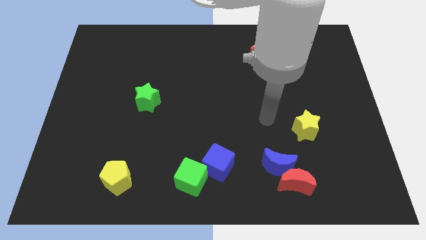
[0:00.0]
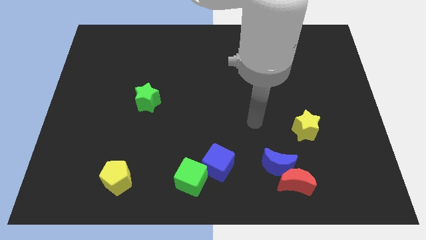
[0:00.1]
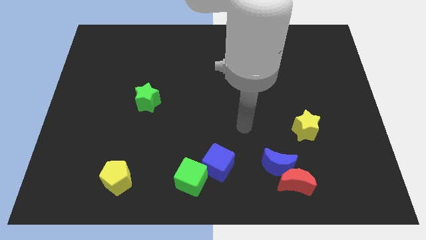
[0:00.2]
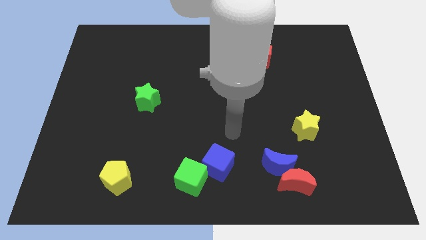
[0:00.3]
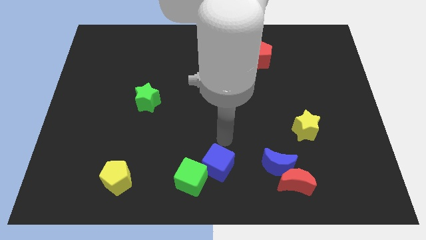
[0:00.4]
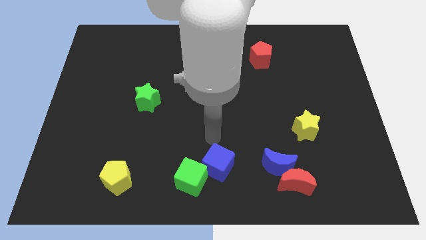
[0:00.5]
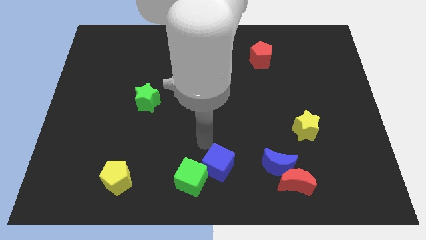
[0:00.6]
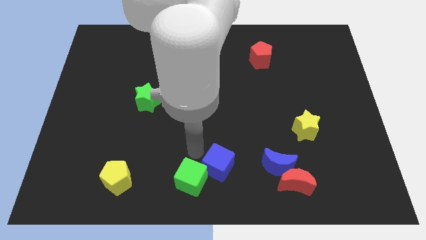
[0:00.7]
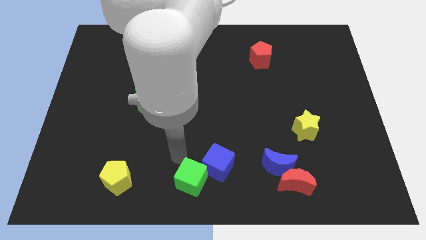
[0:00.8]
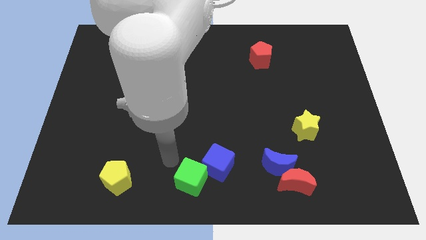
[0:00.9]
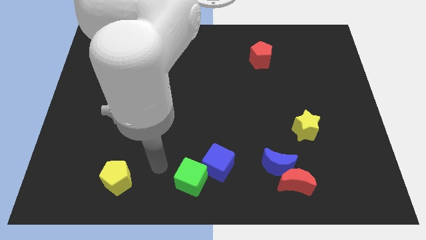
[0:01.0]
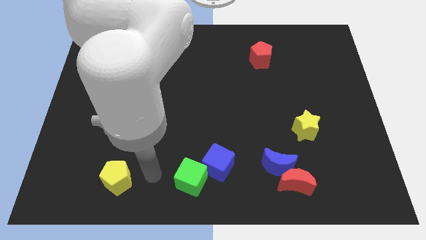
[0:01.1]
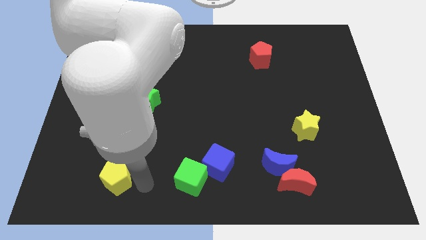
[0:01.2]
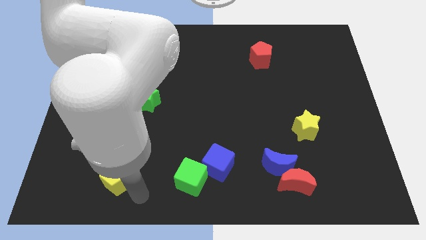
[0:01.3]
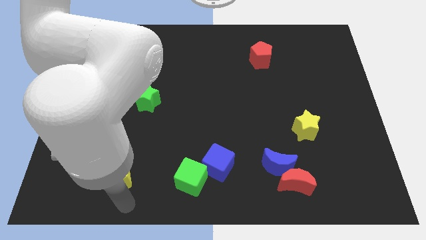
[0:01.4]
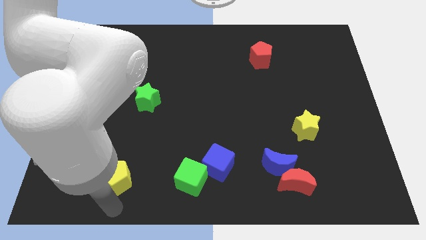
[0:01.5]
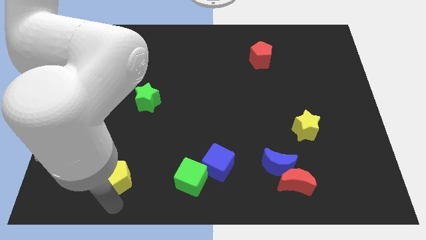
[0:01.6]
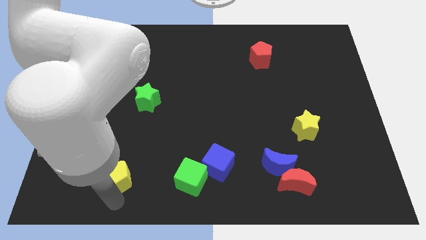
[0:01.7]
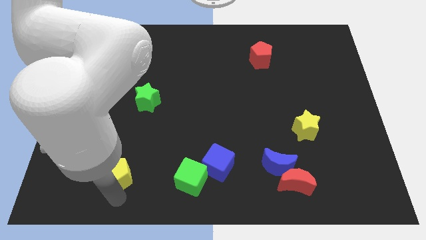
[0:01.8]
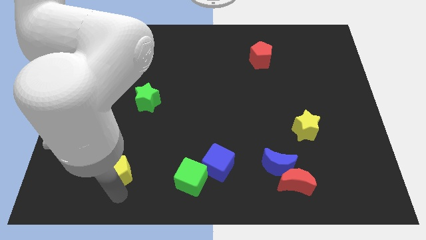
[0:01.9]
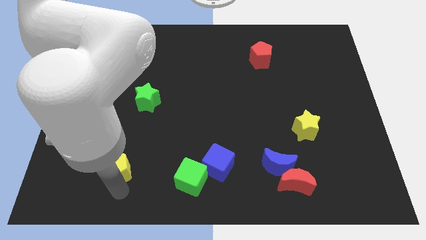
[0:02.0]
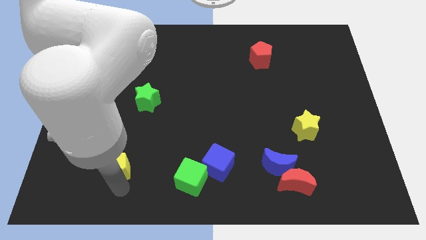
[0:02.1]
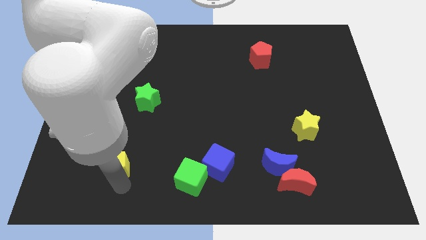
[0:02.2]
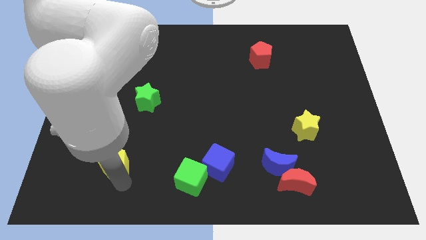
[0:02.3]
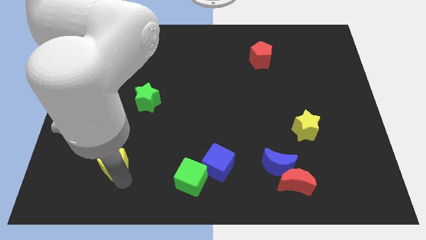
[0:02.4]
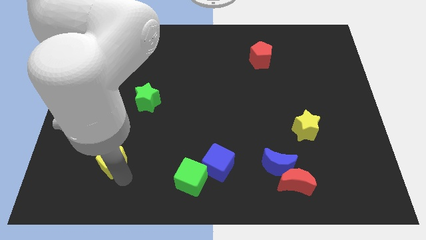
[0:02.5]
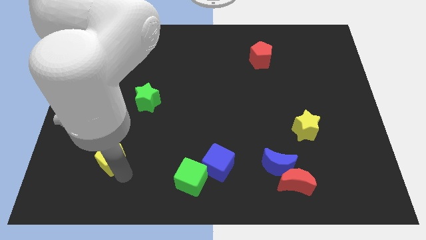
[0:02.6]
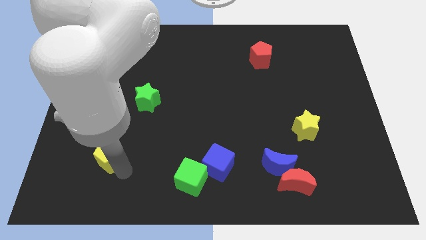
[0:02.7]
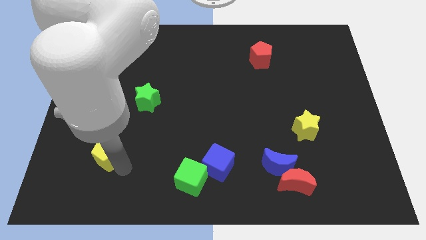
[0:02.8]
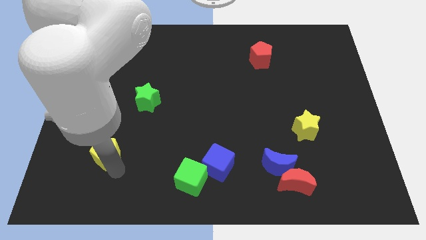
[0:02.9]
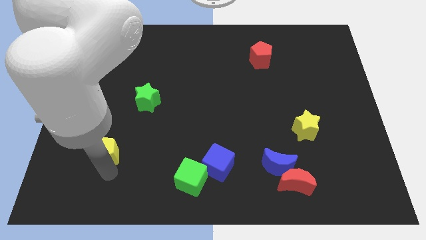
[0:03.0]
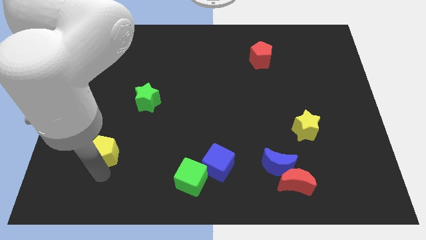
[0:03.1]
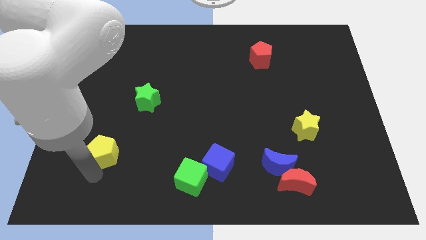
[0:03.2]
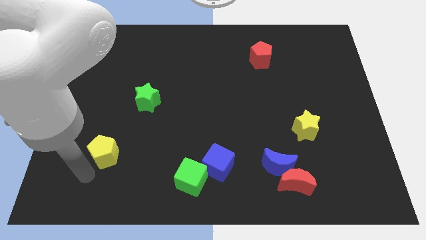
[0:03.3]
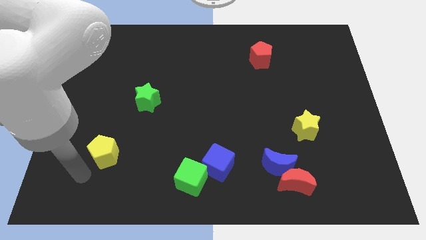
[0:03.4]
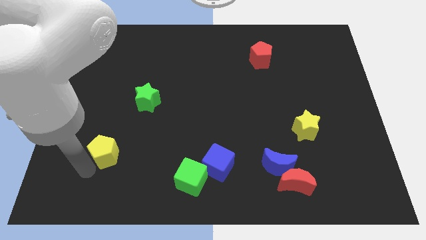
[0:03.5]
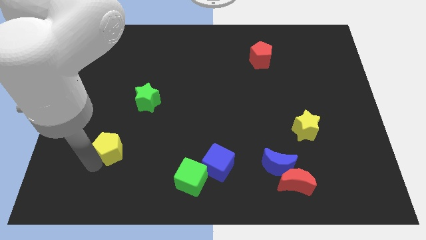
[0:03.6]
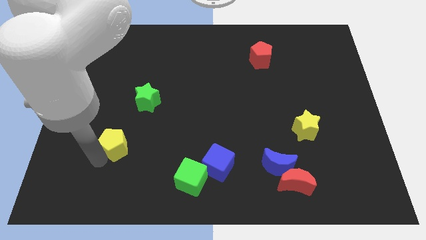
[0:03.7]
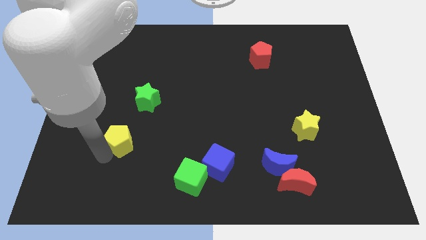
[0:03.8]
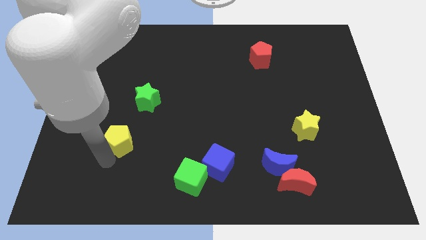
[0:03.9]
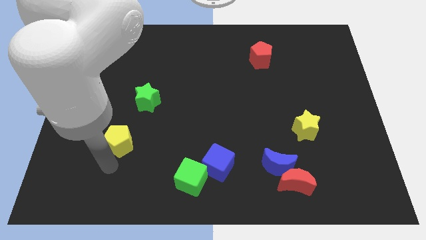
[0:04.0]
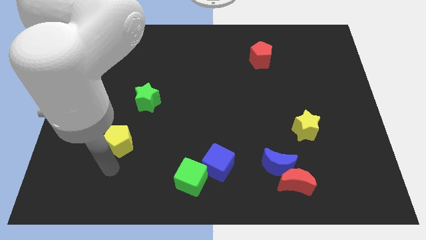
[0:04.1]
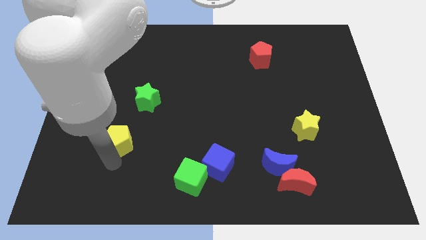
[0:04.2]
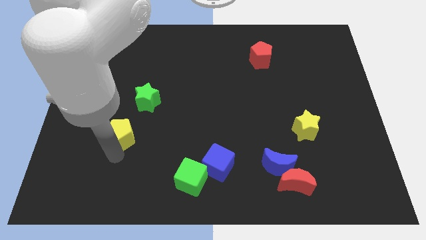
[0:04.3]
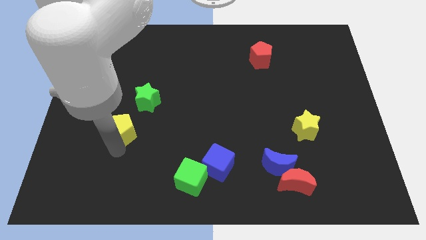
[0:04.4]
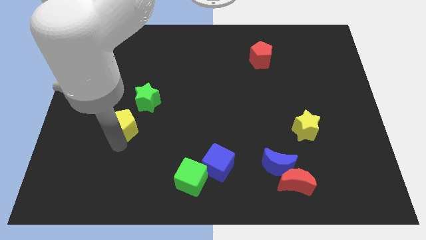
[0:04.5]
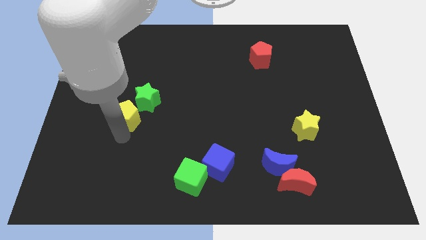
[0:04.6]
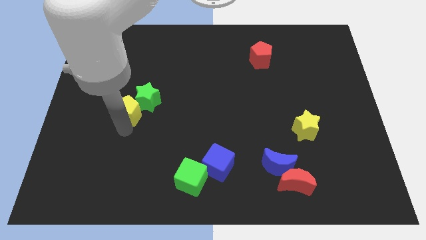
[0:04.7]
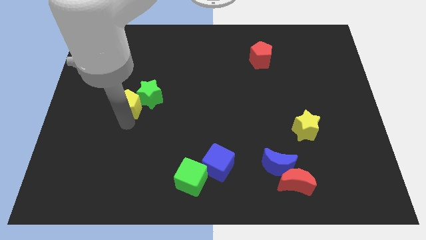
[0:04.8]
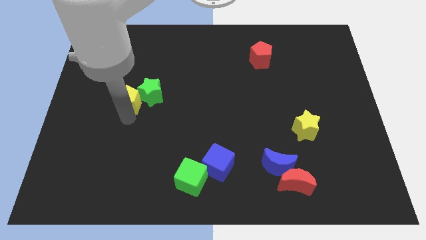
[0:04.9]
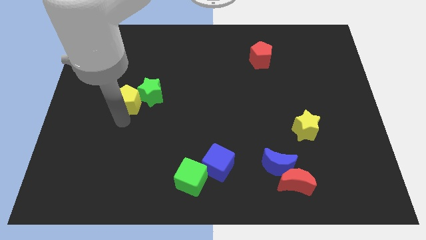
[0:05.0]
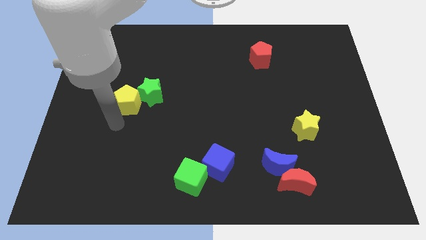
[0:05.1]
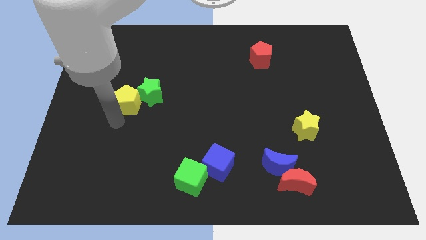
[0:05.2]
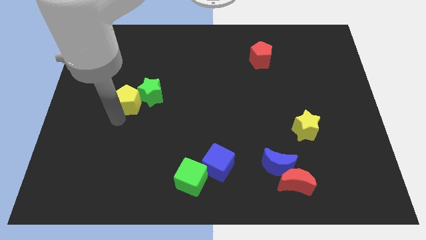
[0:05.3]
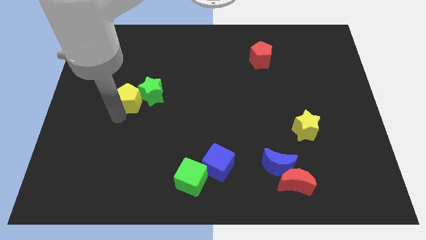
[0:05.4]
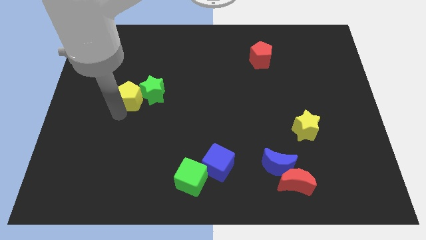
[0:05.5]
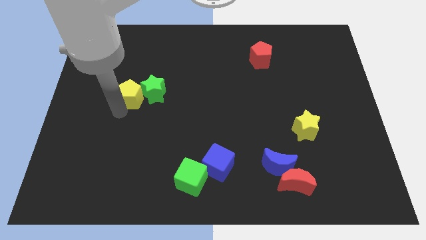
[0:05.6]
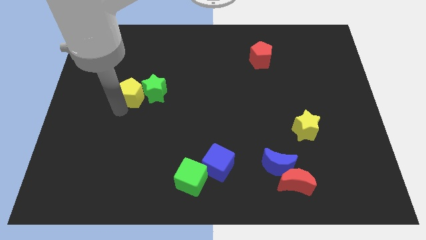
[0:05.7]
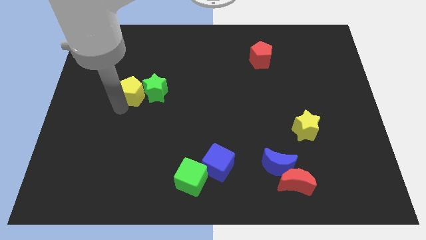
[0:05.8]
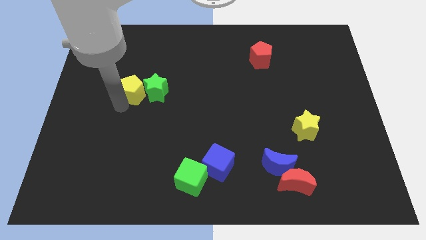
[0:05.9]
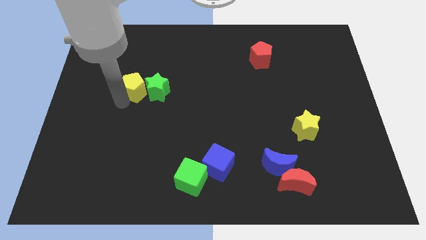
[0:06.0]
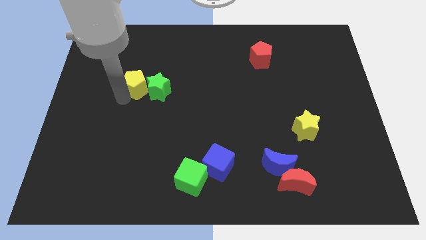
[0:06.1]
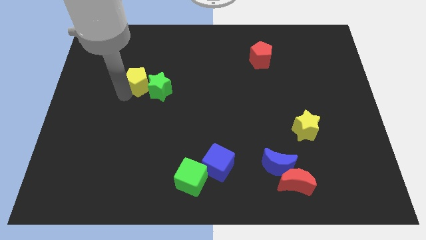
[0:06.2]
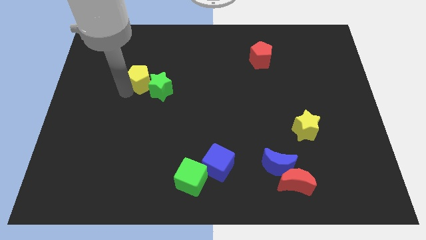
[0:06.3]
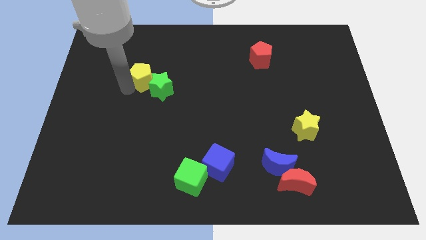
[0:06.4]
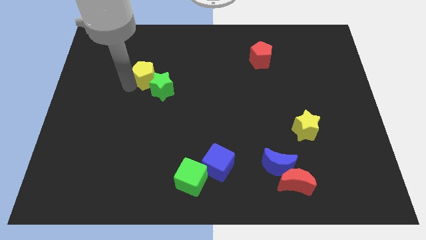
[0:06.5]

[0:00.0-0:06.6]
put the yellow pentagon to the top side of the green star

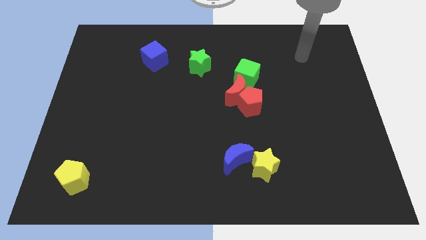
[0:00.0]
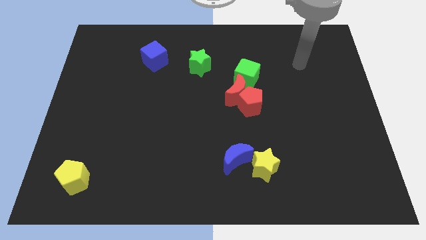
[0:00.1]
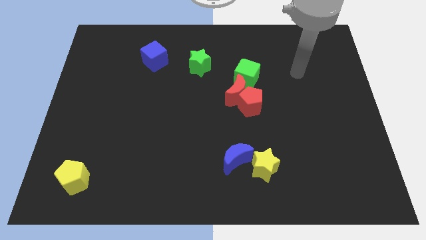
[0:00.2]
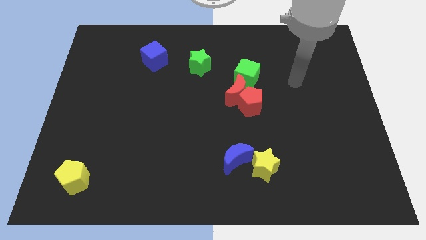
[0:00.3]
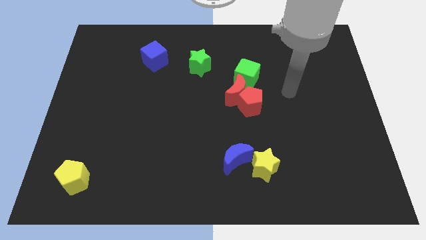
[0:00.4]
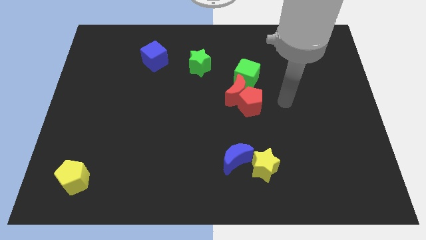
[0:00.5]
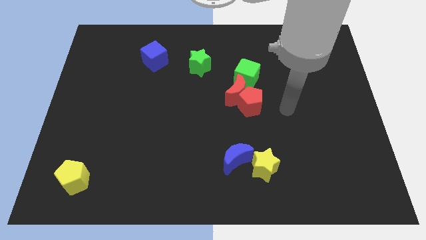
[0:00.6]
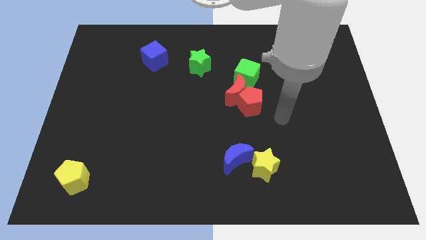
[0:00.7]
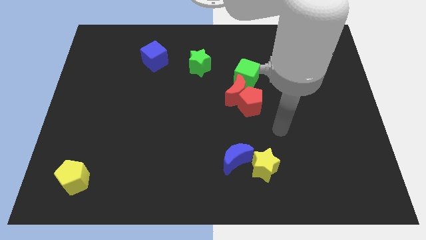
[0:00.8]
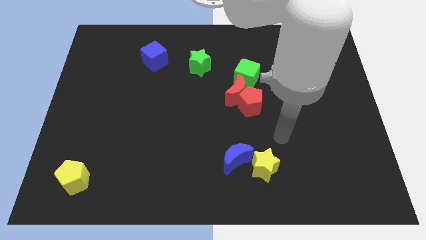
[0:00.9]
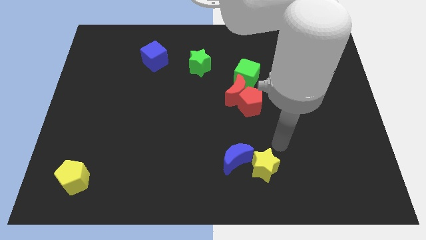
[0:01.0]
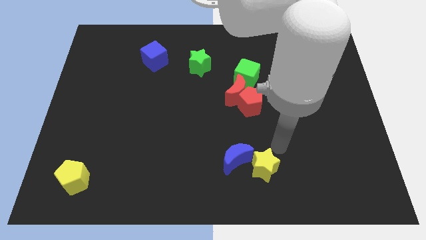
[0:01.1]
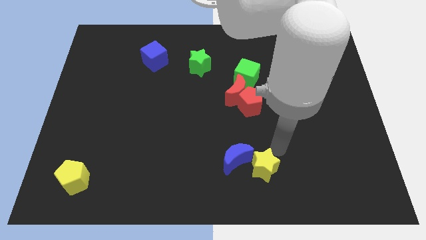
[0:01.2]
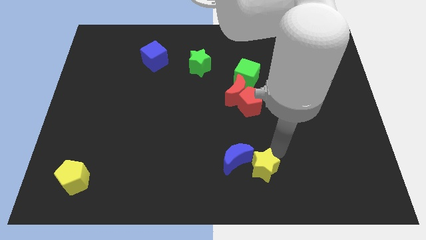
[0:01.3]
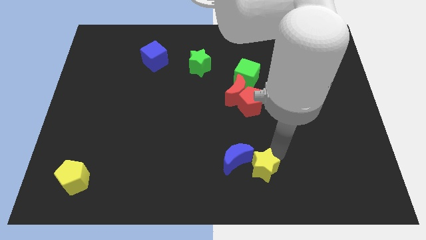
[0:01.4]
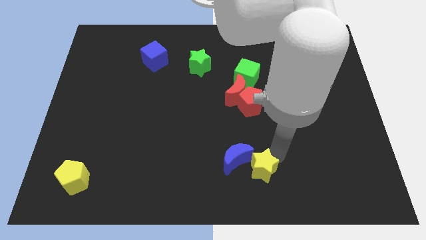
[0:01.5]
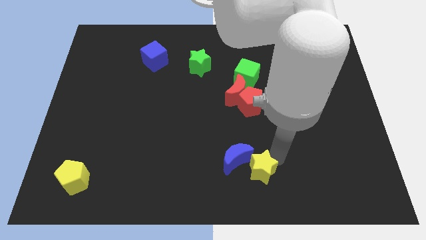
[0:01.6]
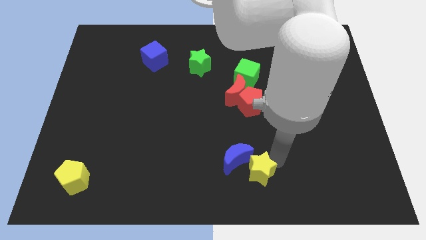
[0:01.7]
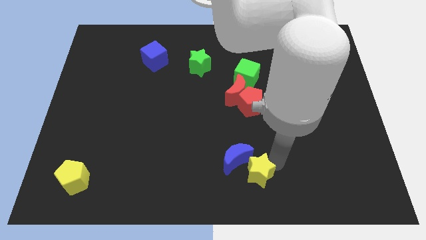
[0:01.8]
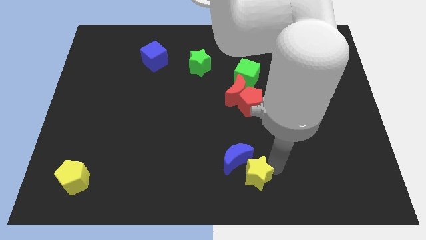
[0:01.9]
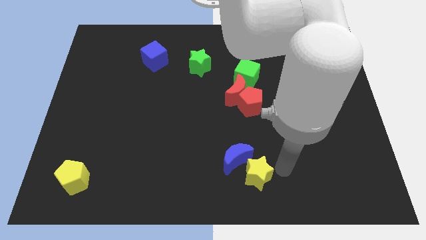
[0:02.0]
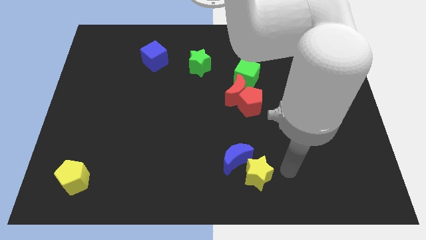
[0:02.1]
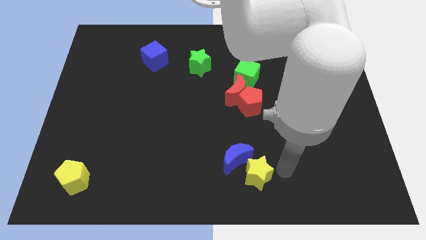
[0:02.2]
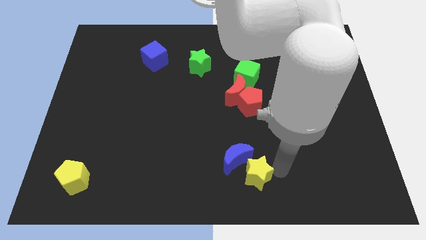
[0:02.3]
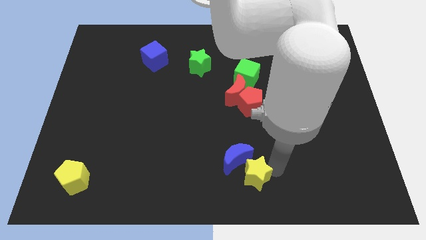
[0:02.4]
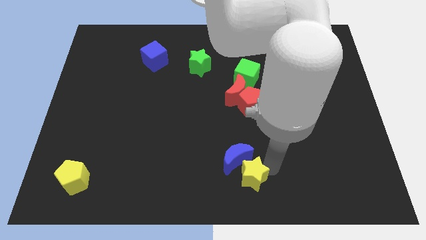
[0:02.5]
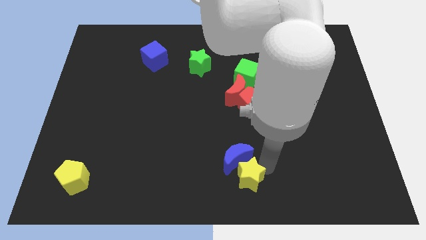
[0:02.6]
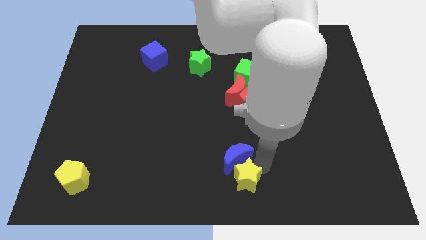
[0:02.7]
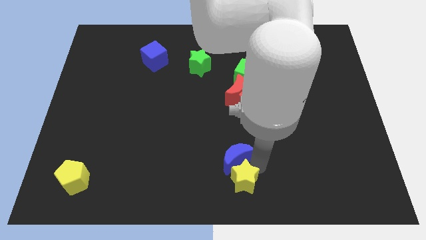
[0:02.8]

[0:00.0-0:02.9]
push the yellow star to the bottom left of the blue moon
